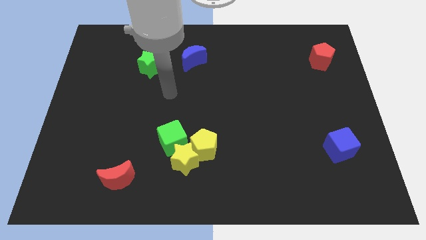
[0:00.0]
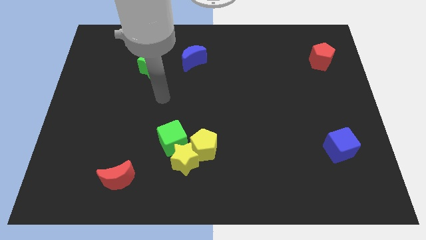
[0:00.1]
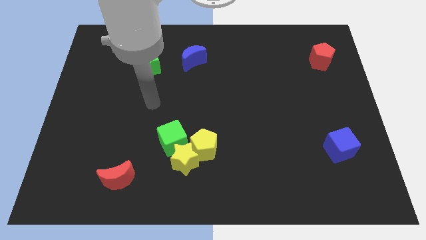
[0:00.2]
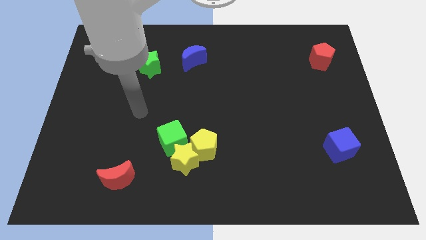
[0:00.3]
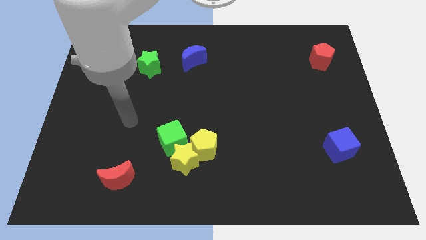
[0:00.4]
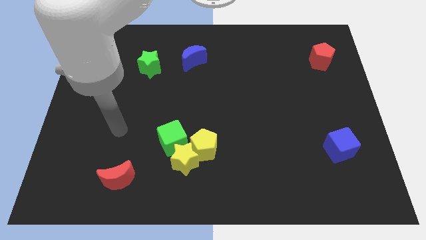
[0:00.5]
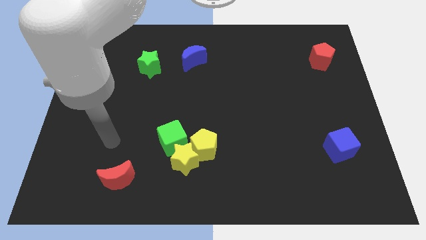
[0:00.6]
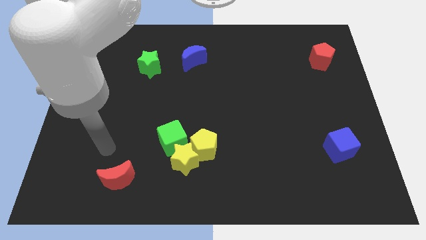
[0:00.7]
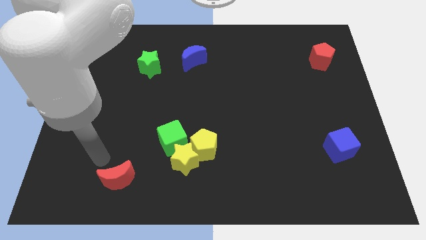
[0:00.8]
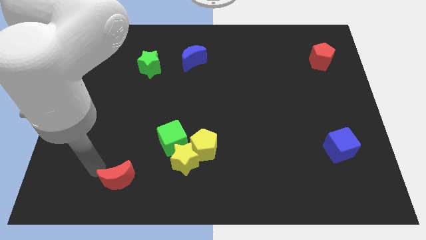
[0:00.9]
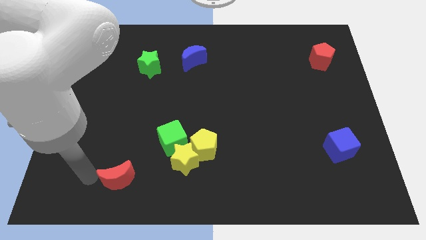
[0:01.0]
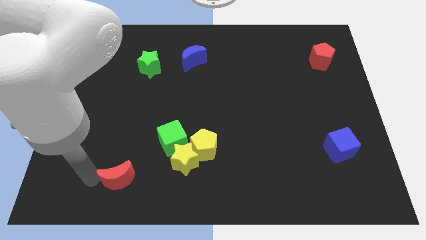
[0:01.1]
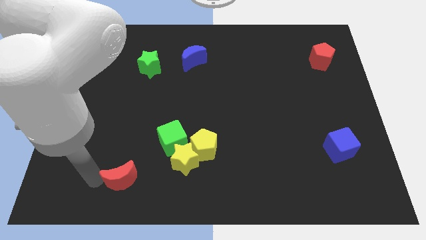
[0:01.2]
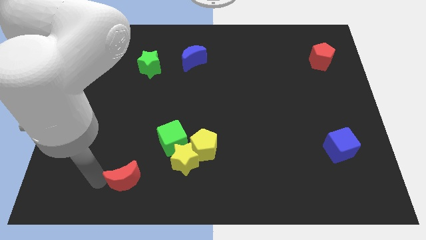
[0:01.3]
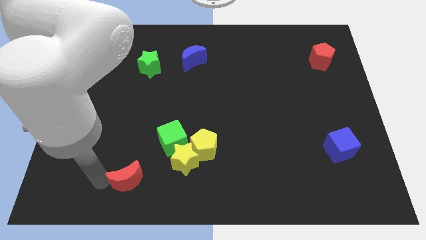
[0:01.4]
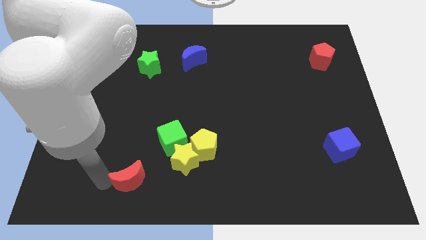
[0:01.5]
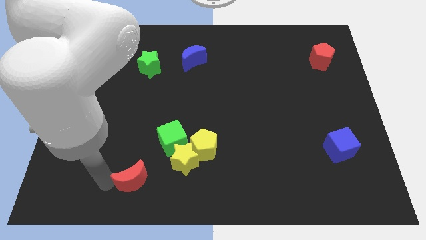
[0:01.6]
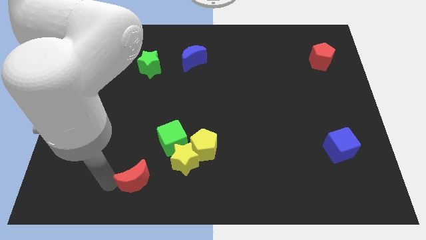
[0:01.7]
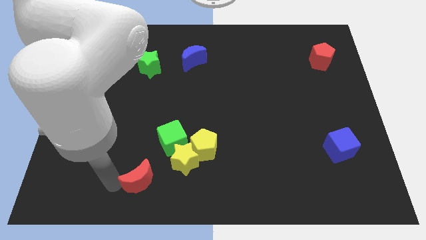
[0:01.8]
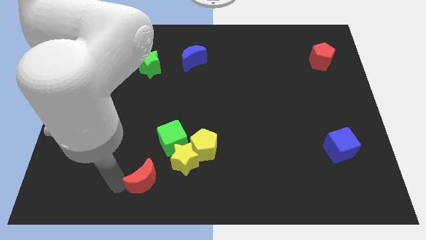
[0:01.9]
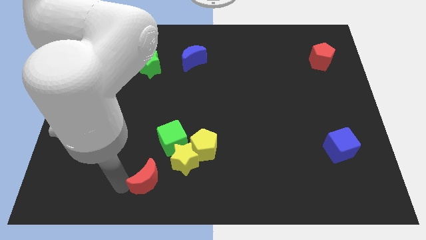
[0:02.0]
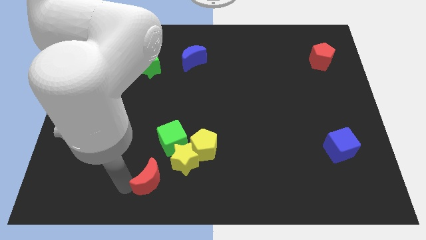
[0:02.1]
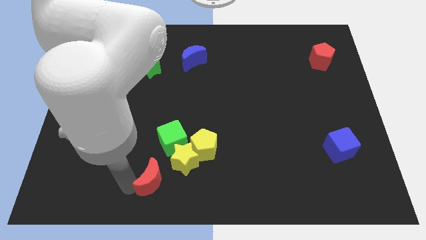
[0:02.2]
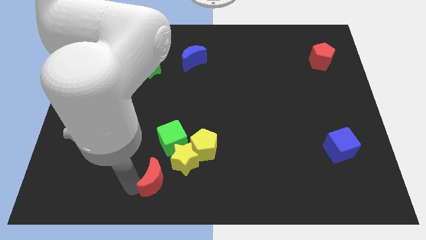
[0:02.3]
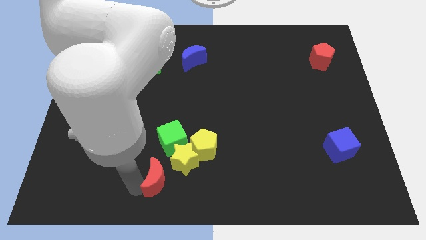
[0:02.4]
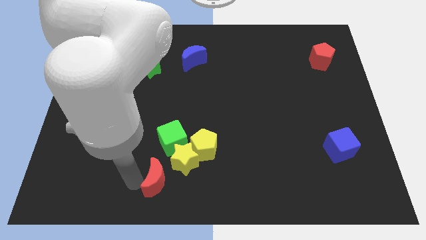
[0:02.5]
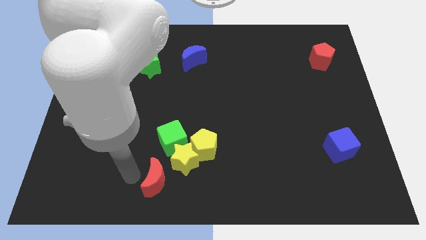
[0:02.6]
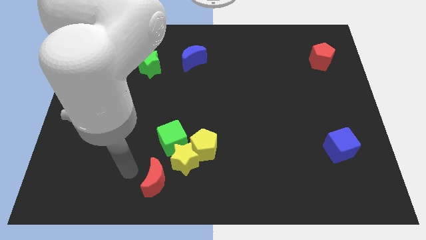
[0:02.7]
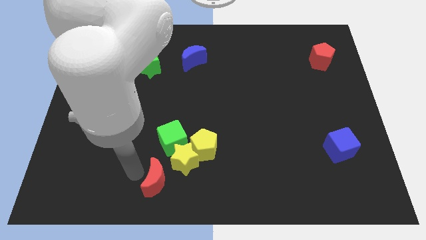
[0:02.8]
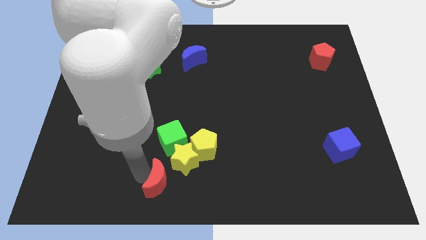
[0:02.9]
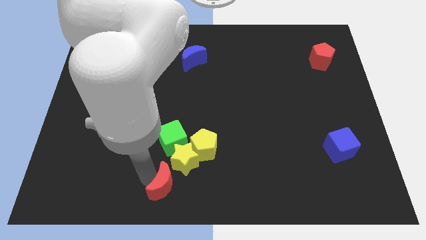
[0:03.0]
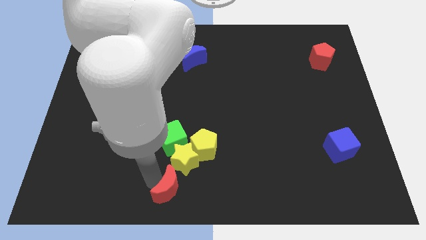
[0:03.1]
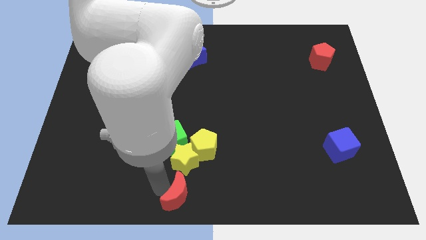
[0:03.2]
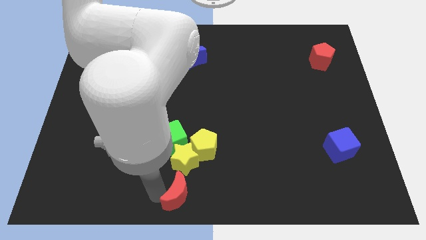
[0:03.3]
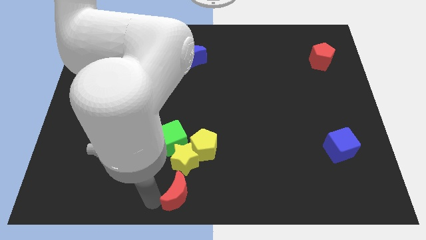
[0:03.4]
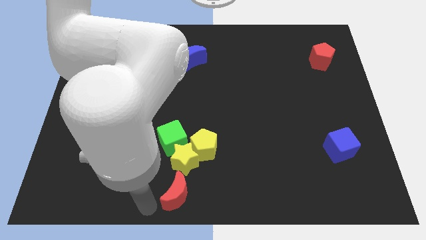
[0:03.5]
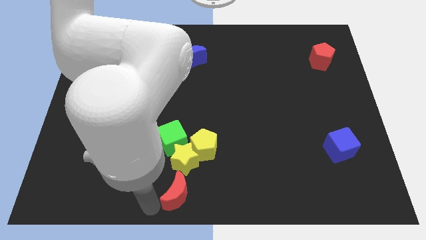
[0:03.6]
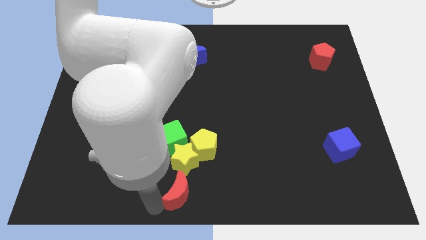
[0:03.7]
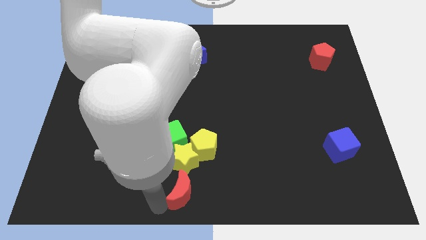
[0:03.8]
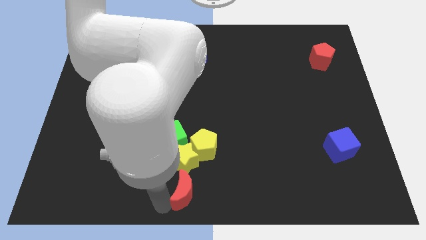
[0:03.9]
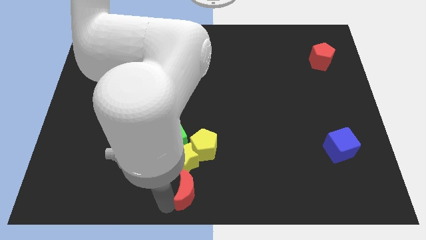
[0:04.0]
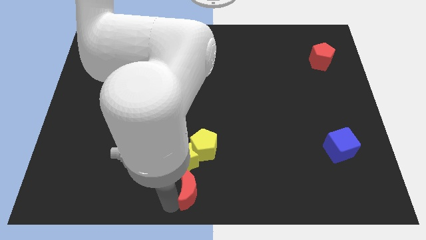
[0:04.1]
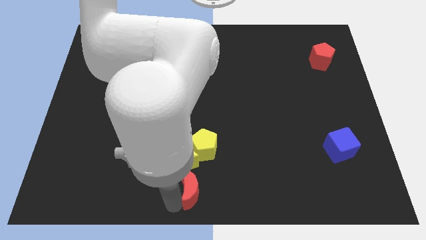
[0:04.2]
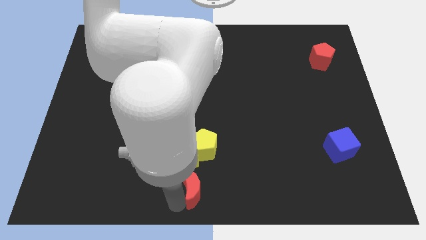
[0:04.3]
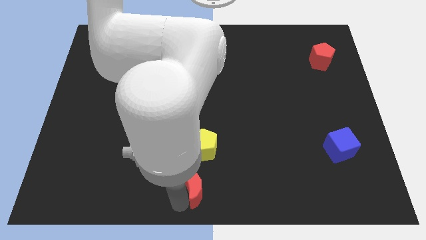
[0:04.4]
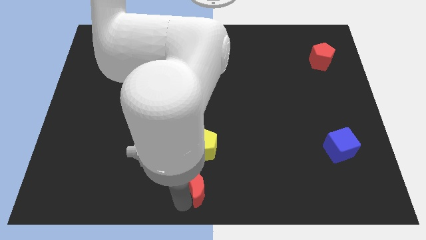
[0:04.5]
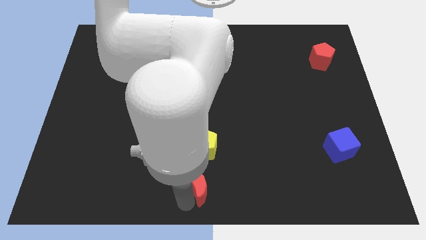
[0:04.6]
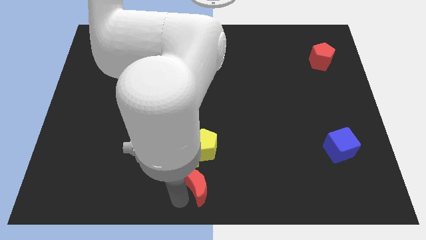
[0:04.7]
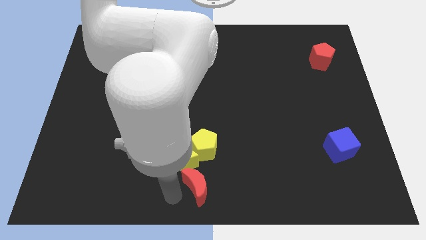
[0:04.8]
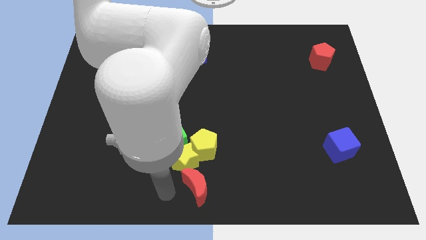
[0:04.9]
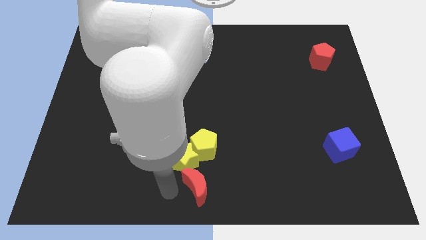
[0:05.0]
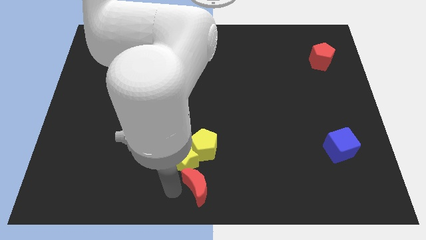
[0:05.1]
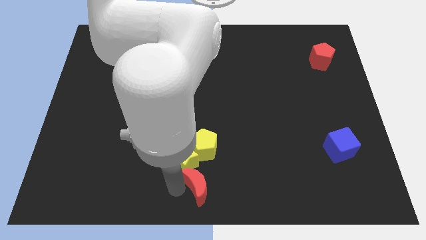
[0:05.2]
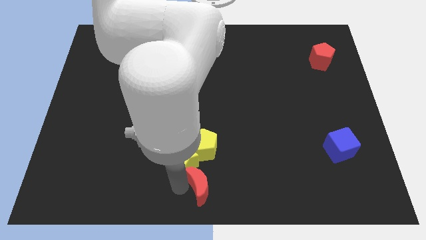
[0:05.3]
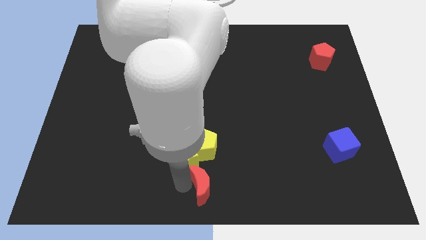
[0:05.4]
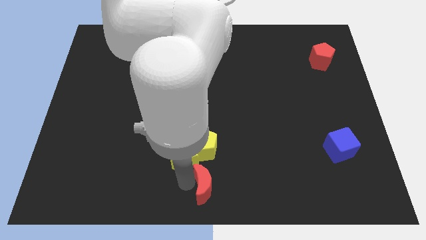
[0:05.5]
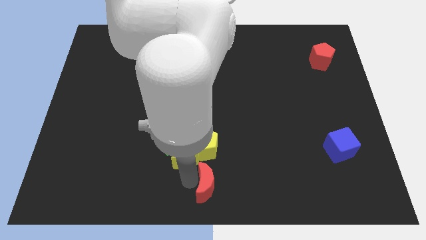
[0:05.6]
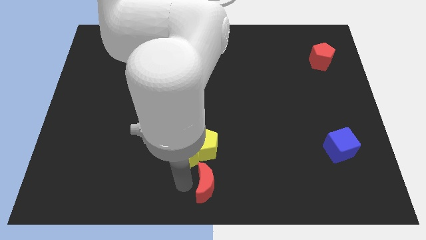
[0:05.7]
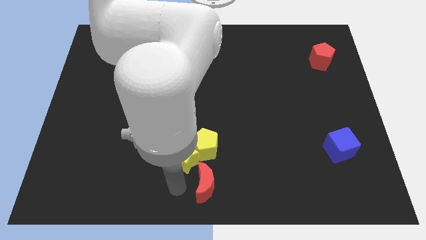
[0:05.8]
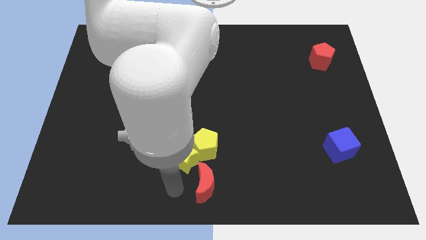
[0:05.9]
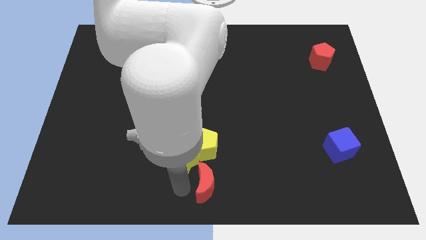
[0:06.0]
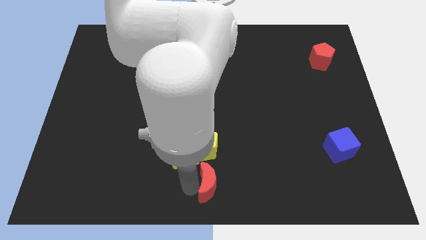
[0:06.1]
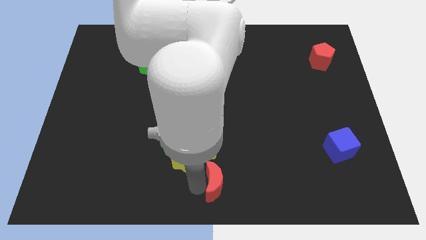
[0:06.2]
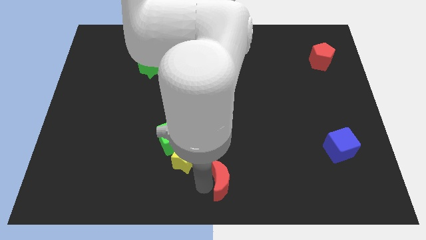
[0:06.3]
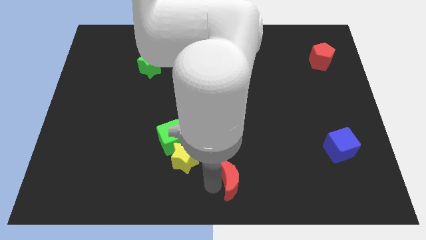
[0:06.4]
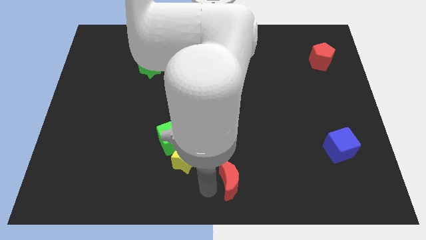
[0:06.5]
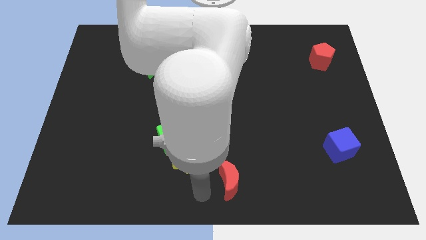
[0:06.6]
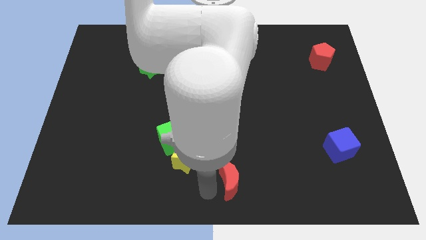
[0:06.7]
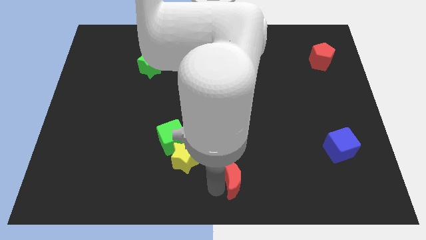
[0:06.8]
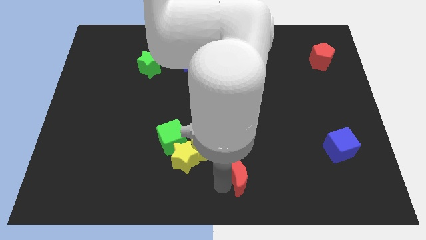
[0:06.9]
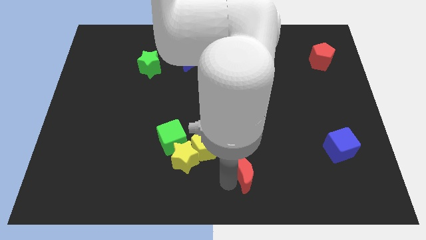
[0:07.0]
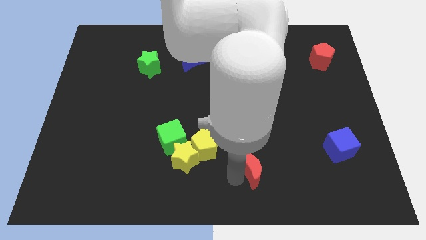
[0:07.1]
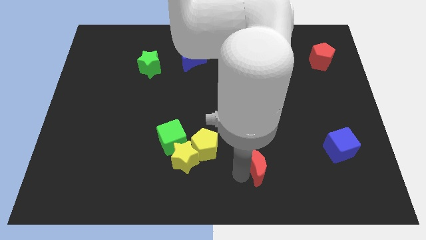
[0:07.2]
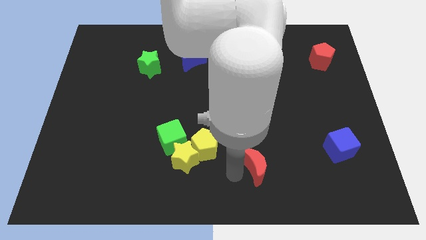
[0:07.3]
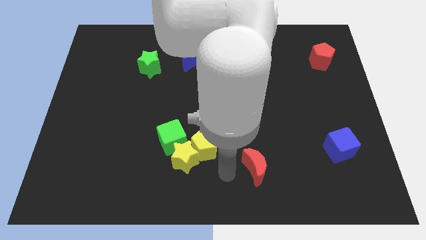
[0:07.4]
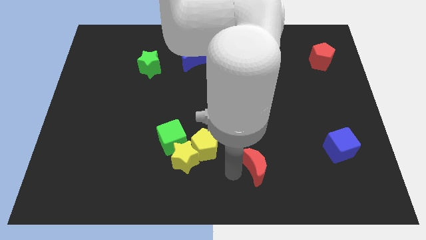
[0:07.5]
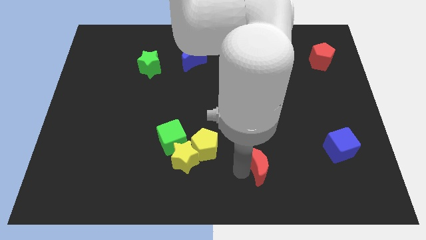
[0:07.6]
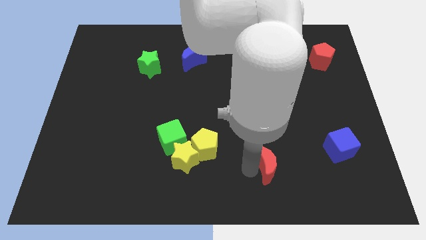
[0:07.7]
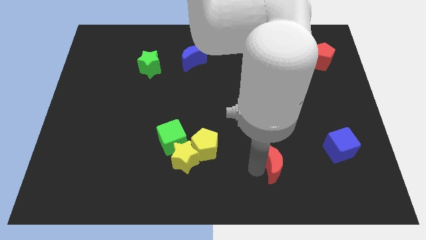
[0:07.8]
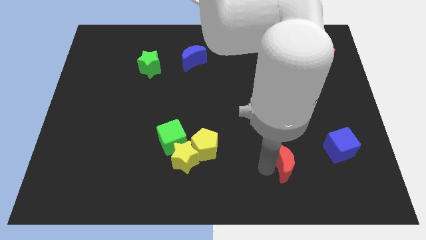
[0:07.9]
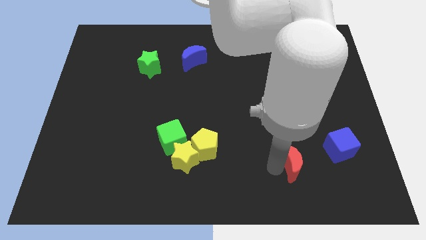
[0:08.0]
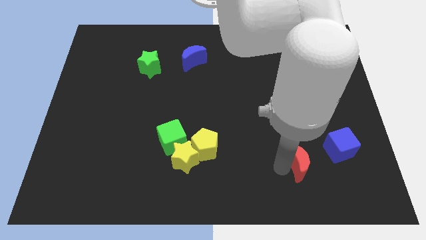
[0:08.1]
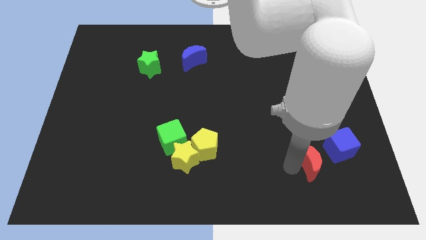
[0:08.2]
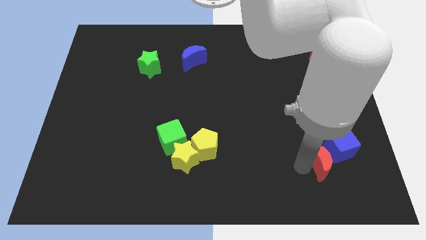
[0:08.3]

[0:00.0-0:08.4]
move the red moon close to the blue cube
